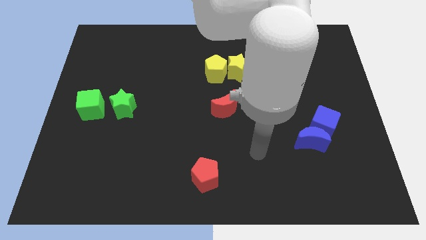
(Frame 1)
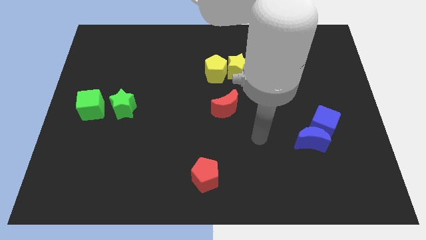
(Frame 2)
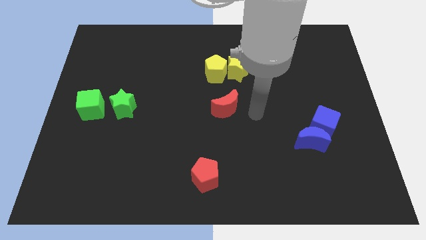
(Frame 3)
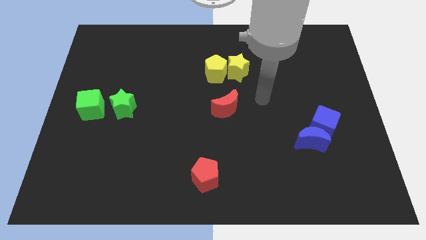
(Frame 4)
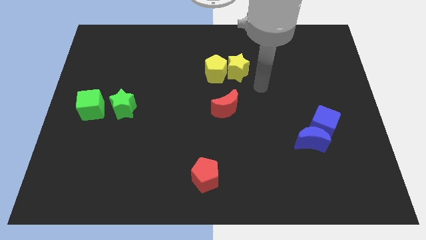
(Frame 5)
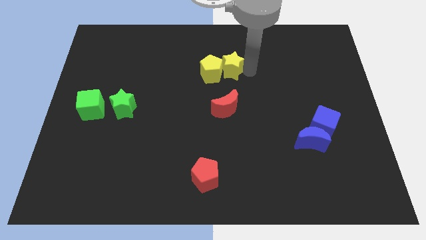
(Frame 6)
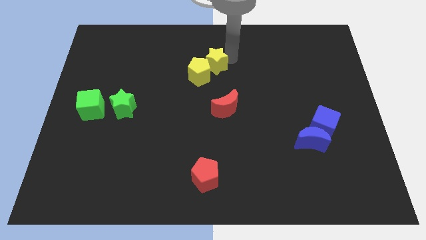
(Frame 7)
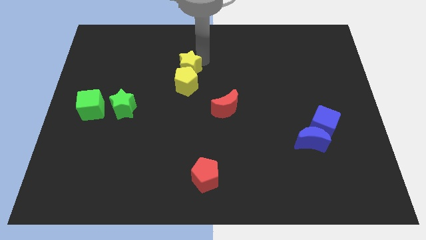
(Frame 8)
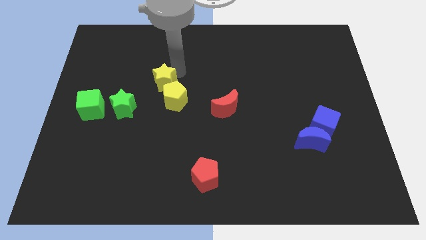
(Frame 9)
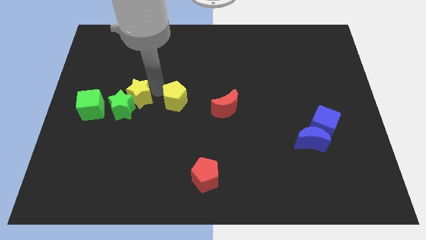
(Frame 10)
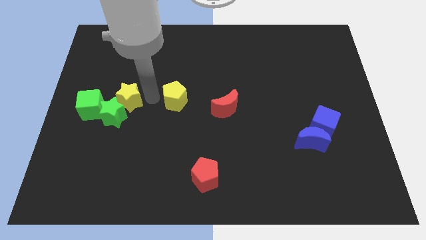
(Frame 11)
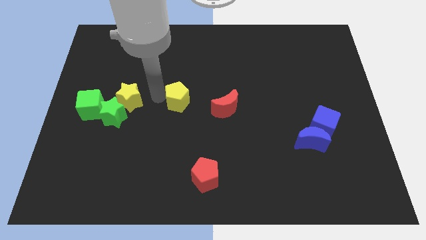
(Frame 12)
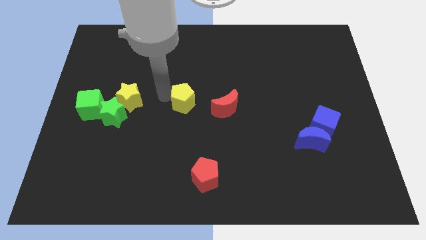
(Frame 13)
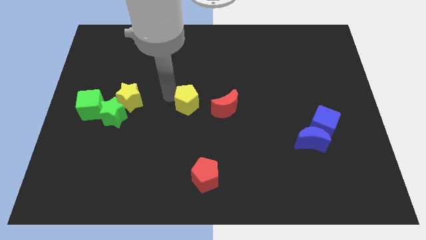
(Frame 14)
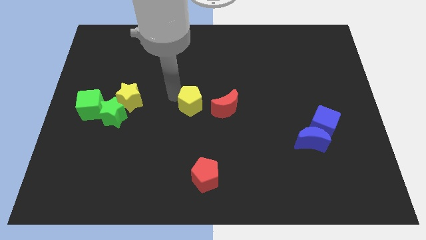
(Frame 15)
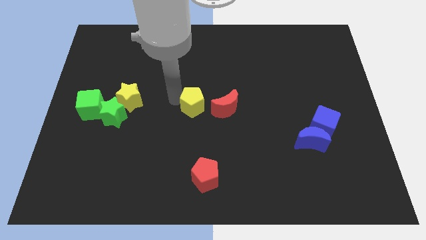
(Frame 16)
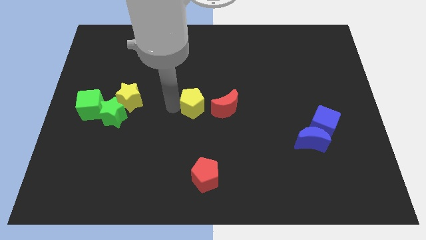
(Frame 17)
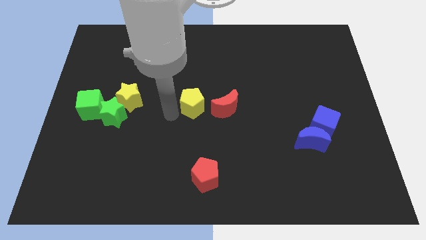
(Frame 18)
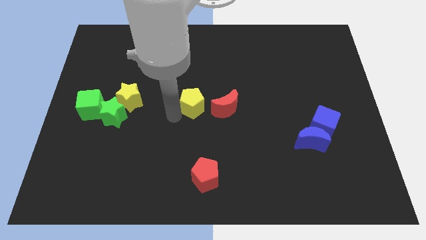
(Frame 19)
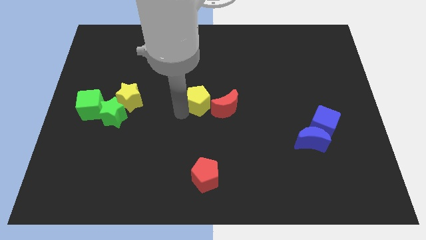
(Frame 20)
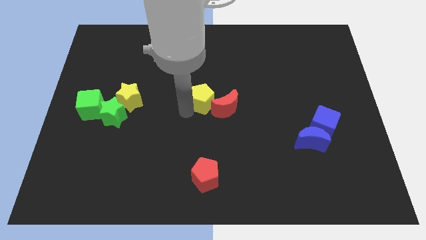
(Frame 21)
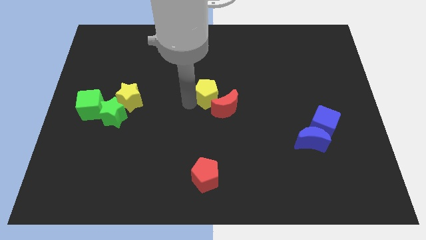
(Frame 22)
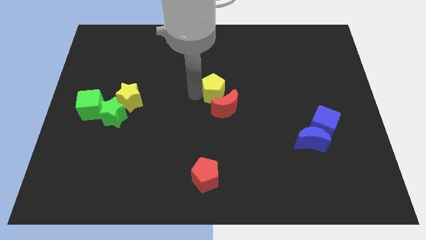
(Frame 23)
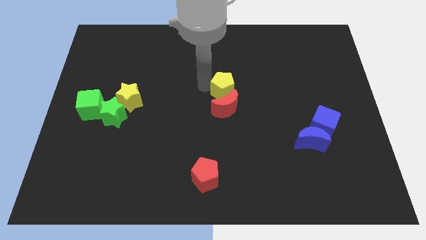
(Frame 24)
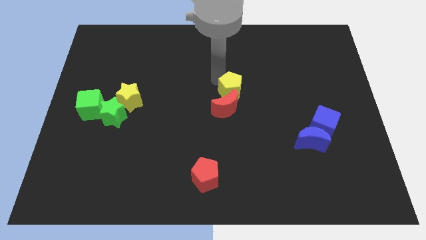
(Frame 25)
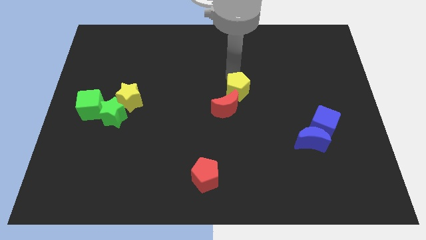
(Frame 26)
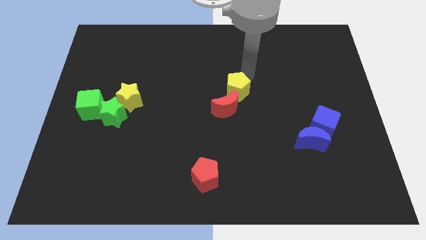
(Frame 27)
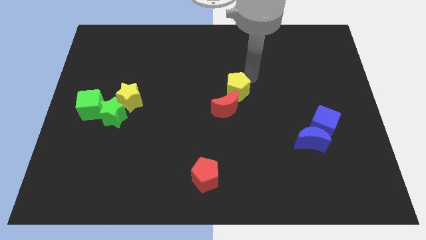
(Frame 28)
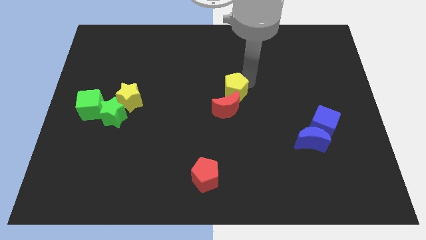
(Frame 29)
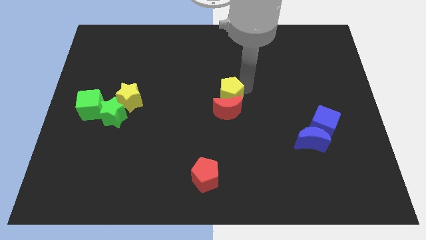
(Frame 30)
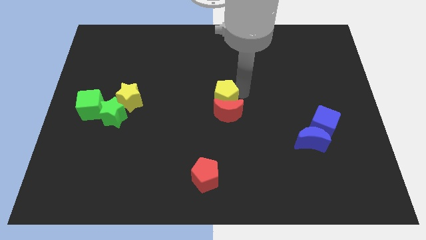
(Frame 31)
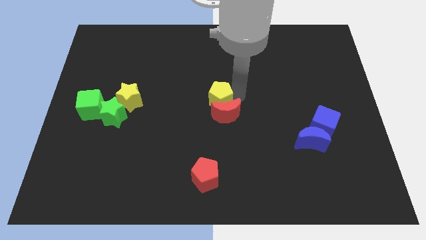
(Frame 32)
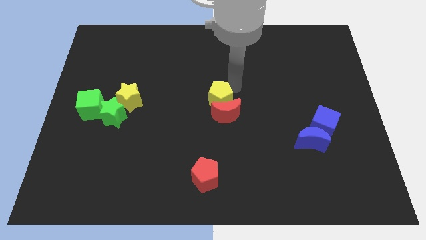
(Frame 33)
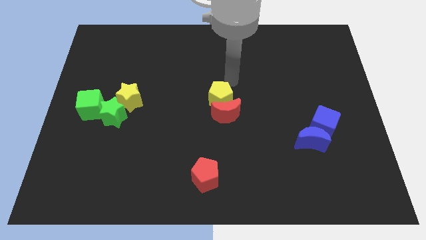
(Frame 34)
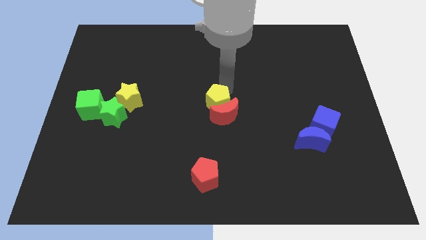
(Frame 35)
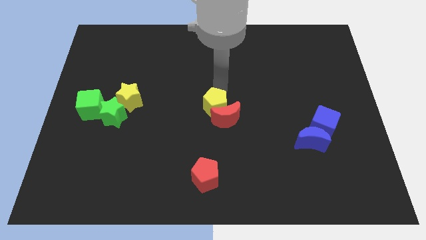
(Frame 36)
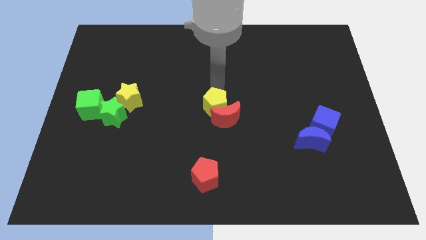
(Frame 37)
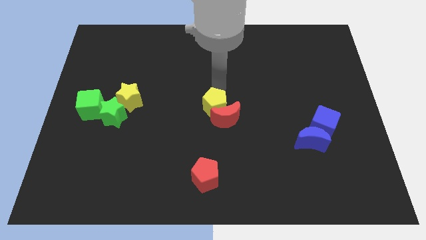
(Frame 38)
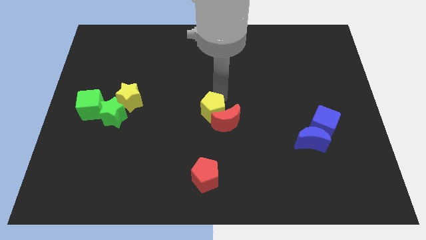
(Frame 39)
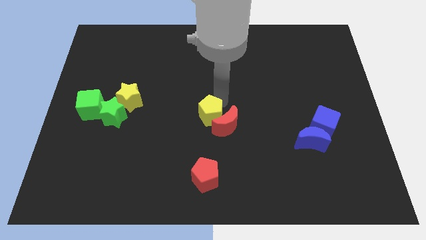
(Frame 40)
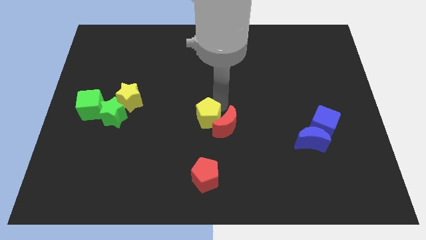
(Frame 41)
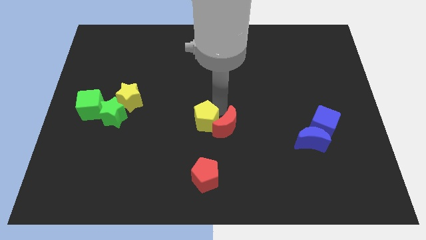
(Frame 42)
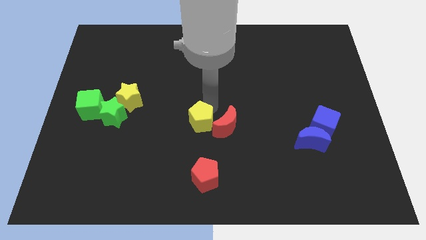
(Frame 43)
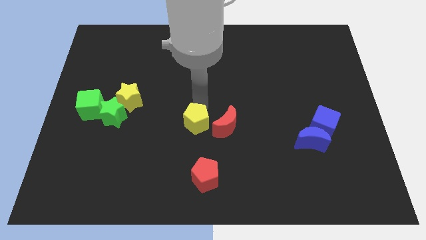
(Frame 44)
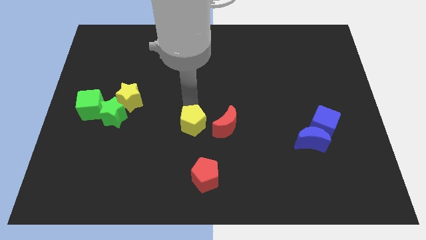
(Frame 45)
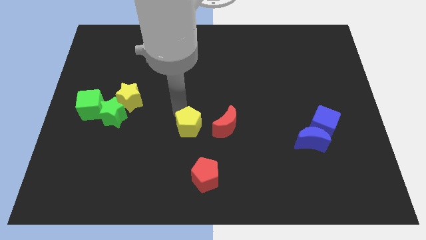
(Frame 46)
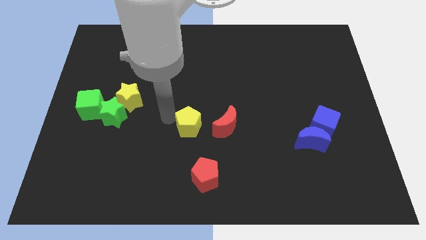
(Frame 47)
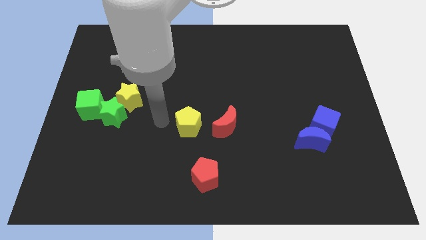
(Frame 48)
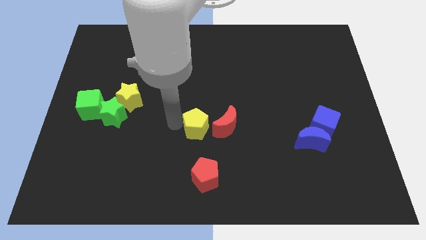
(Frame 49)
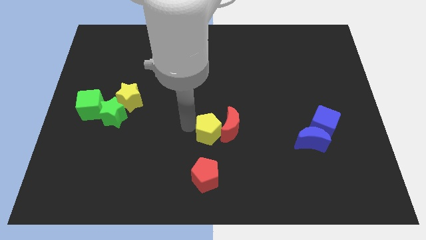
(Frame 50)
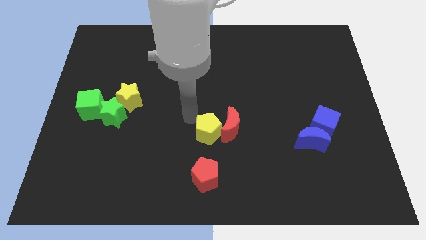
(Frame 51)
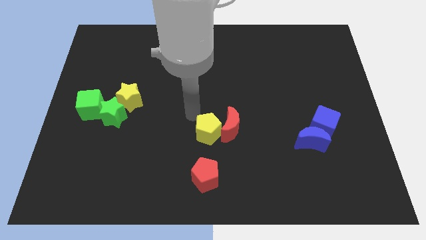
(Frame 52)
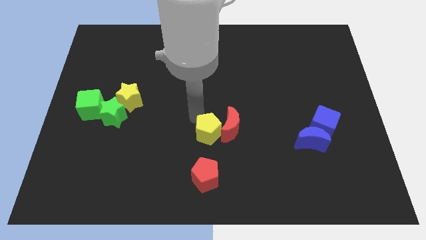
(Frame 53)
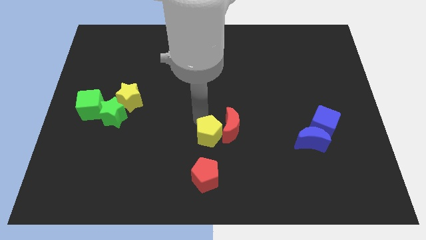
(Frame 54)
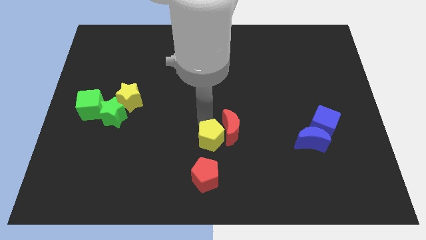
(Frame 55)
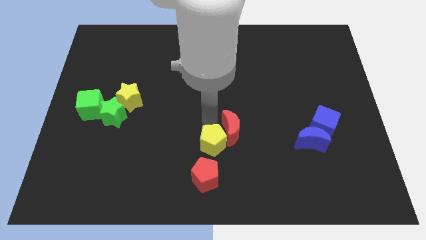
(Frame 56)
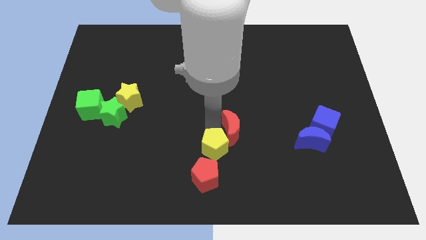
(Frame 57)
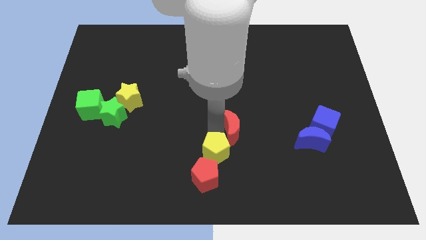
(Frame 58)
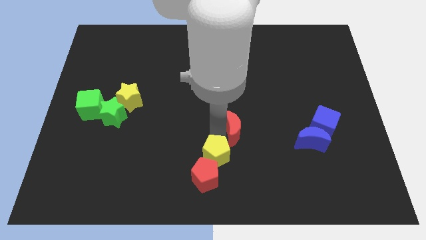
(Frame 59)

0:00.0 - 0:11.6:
put the yellow pentagon to the bottom
